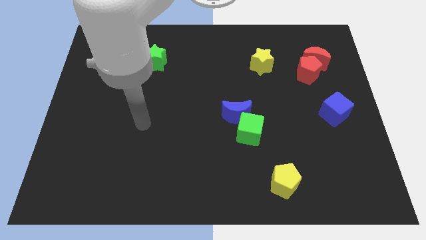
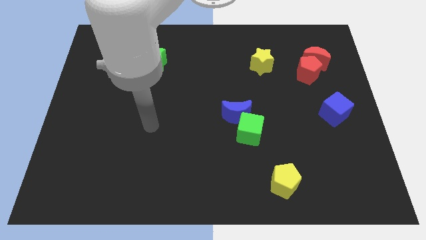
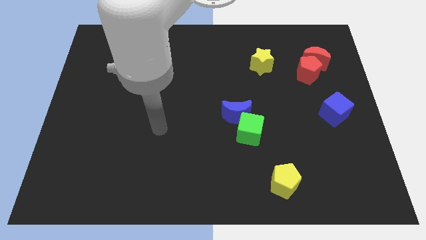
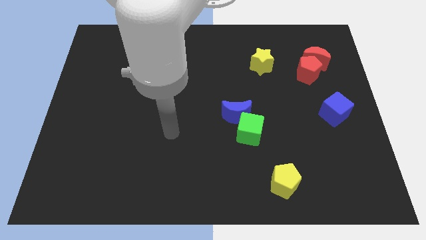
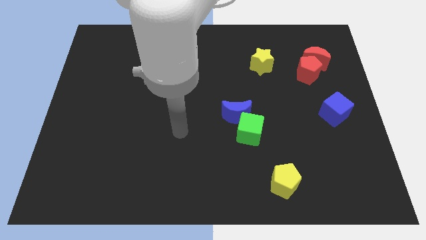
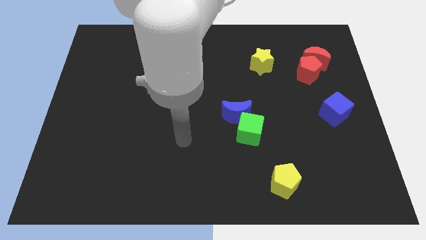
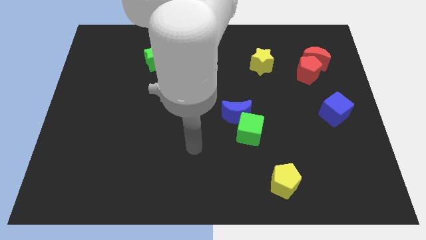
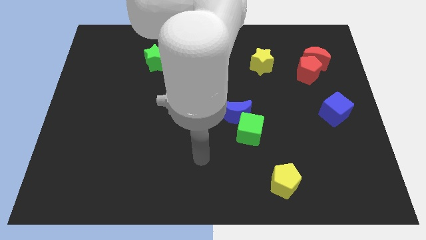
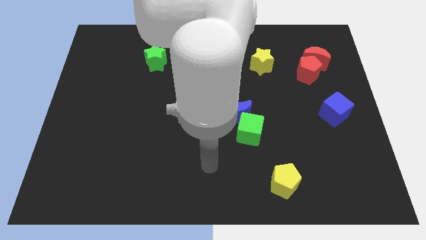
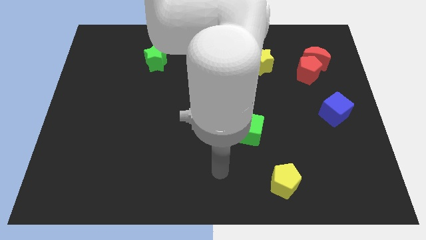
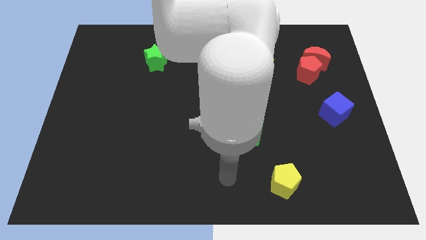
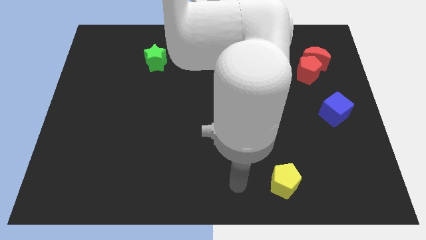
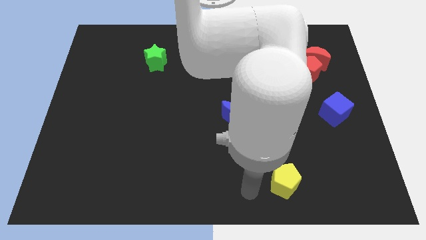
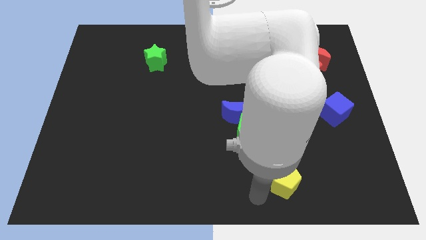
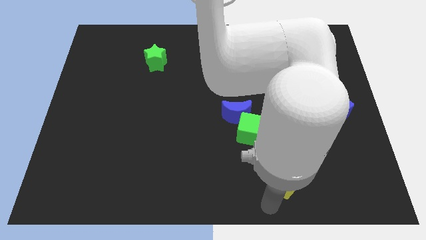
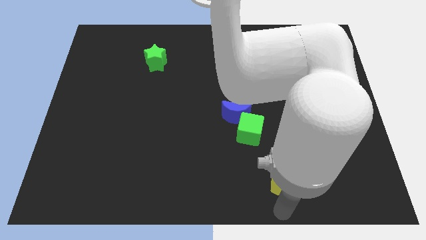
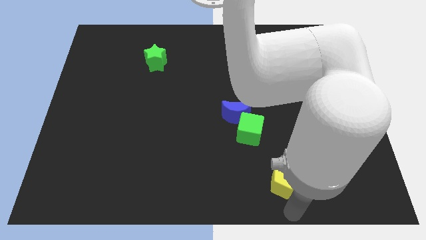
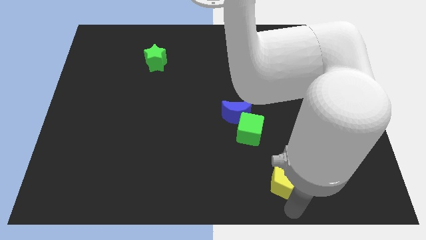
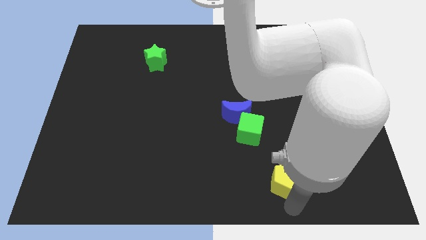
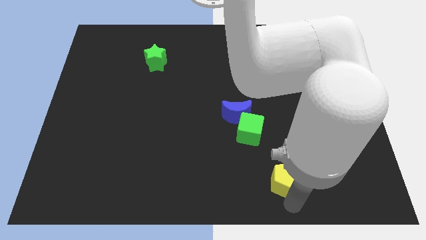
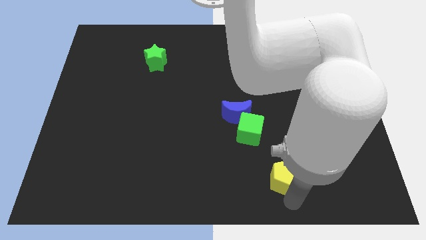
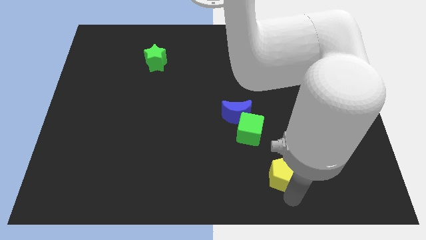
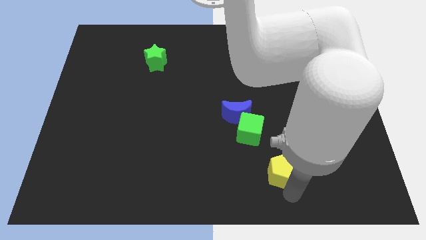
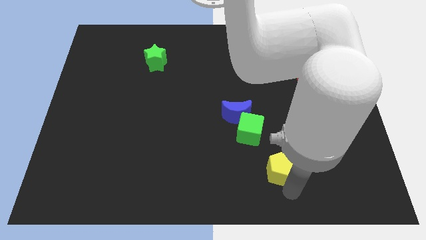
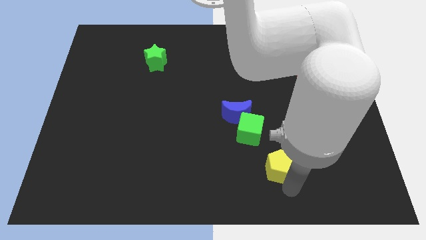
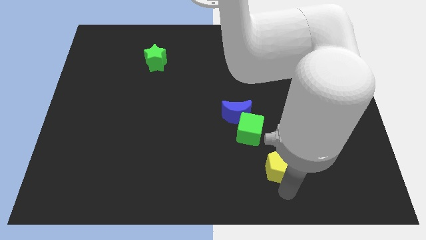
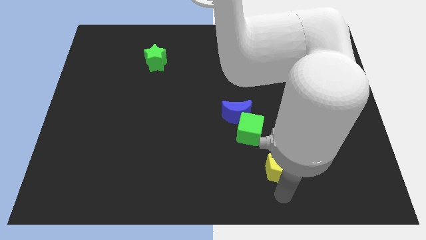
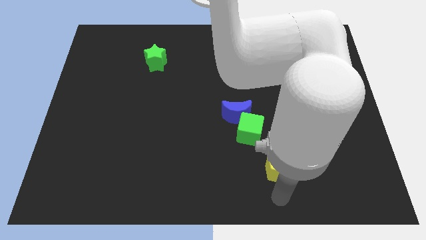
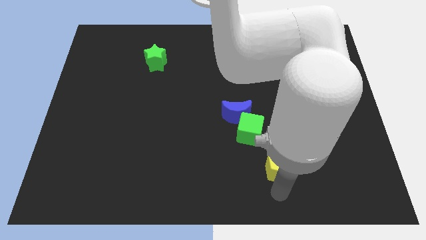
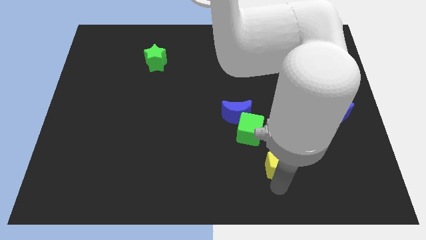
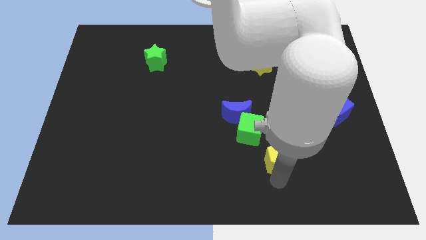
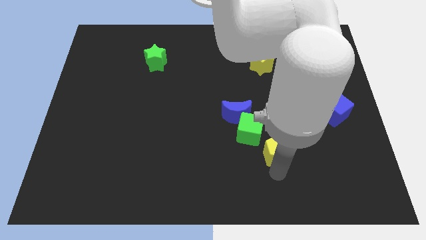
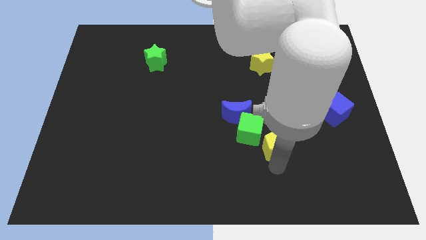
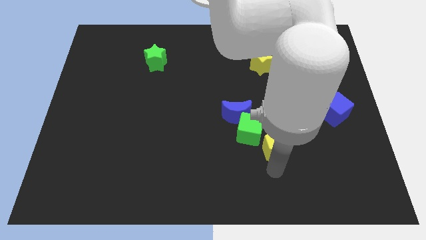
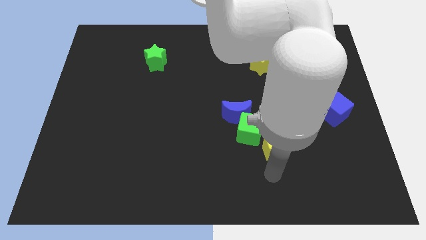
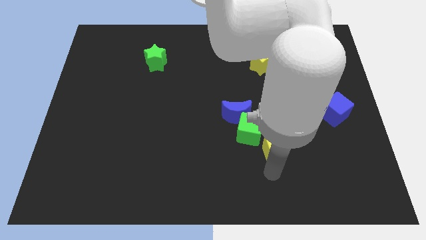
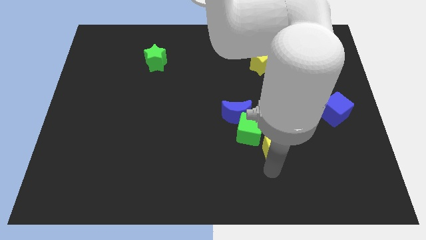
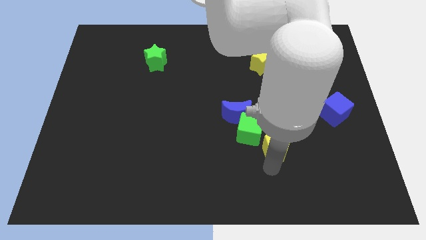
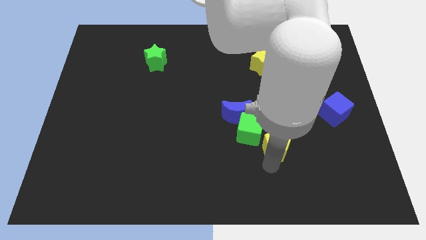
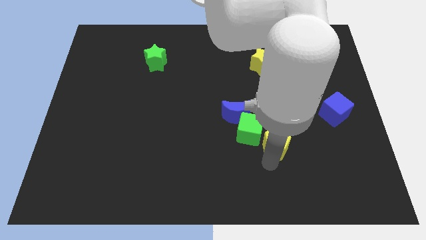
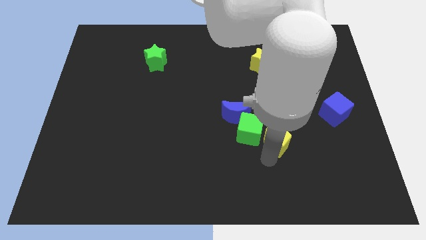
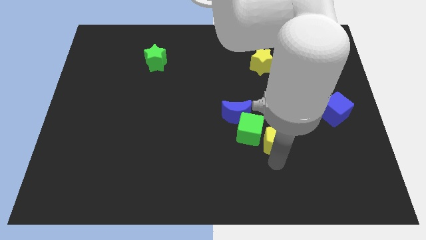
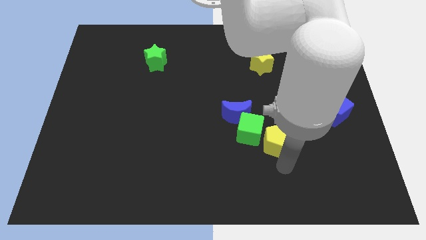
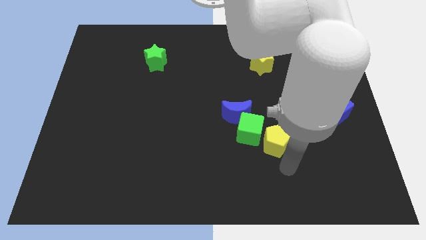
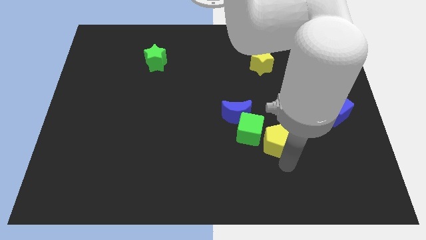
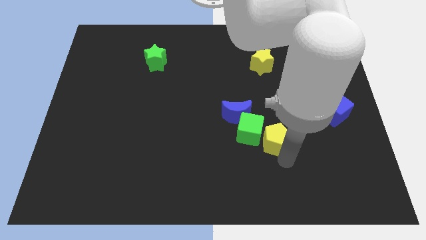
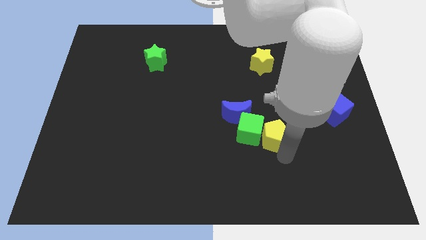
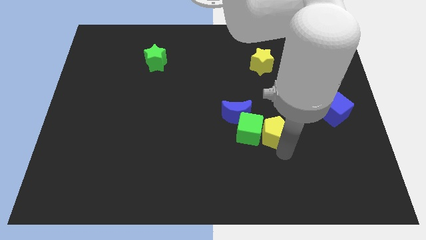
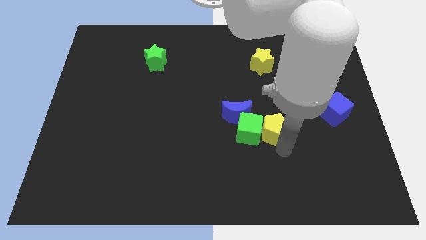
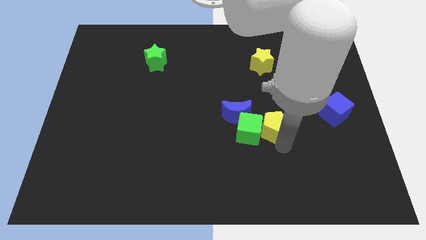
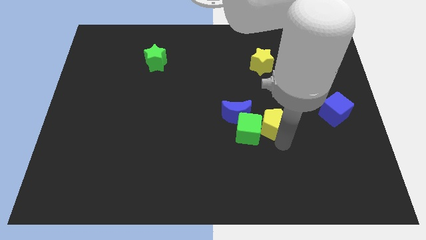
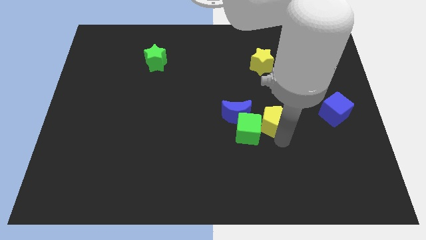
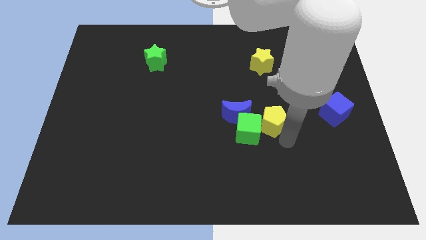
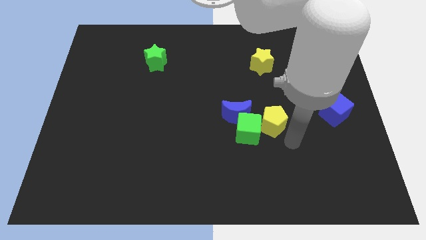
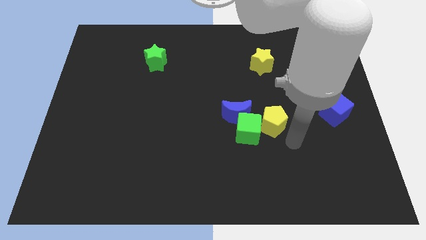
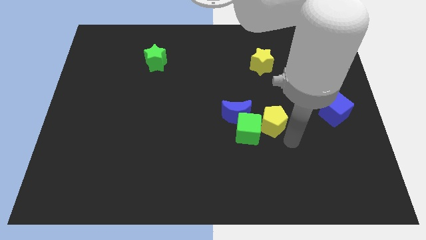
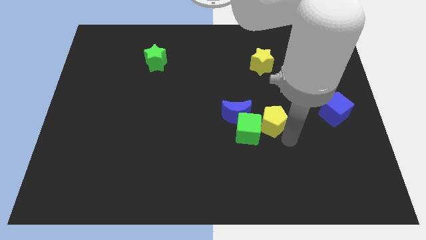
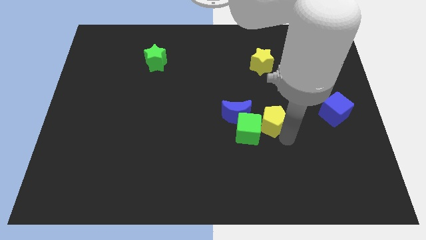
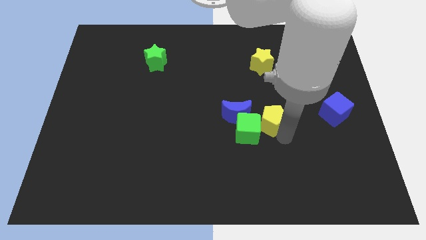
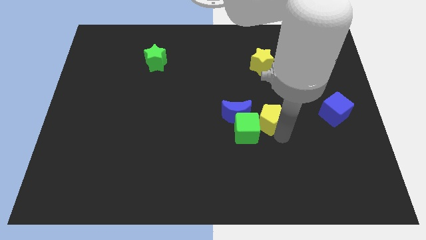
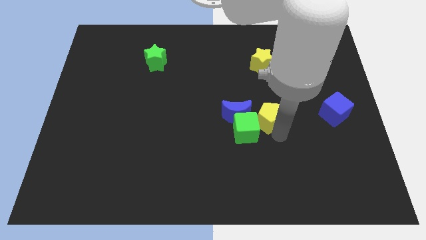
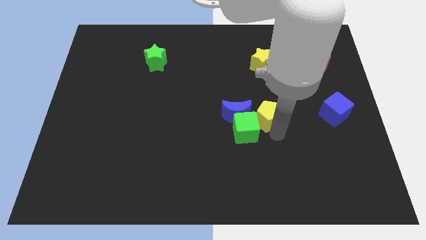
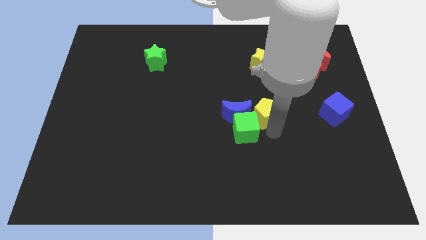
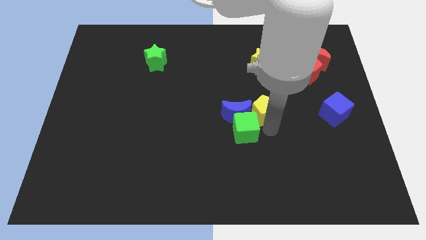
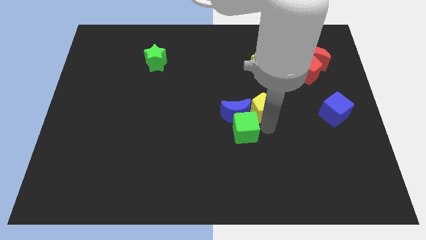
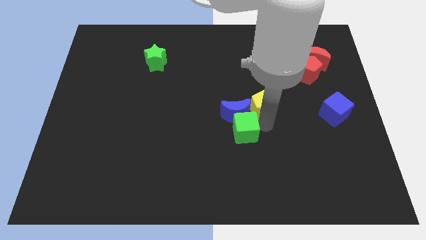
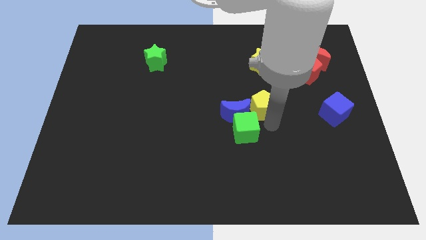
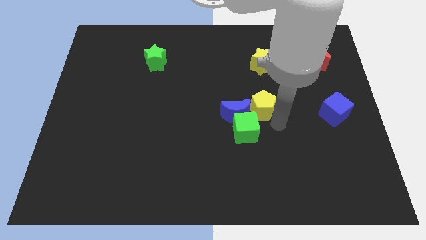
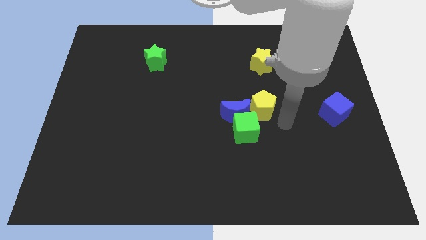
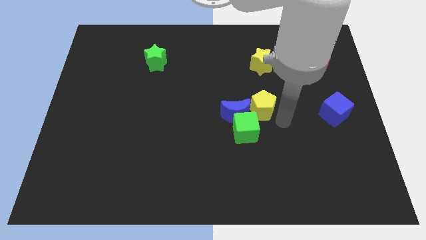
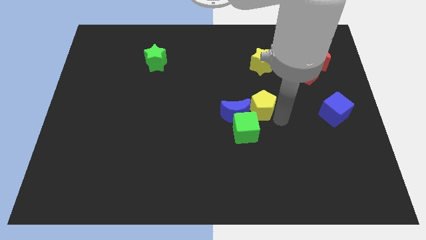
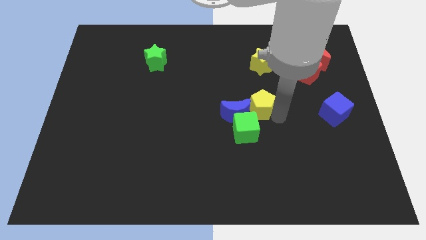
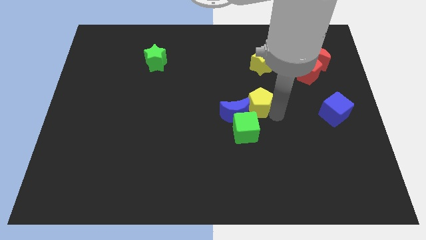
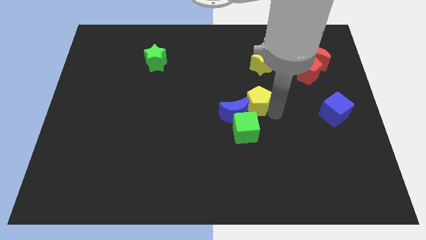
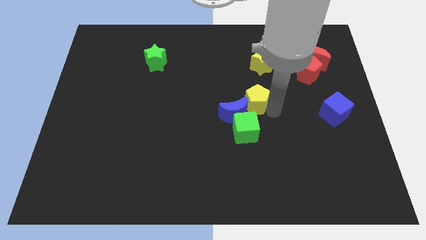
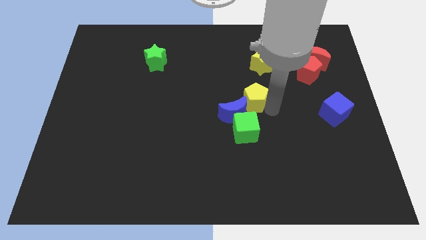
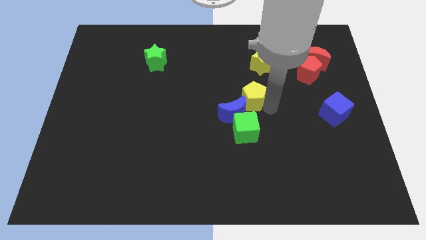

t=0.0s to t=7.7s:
move the yellow pentagon to the top side of the blue moon

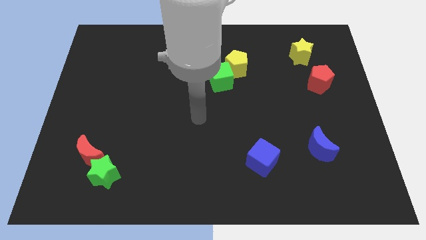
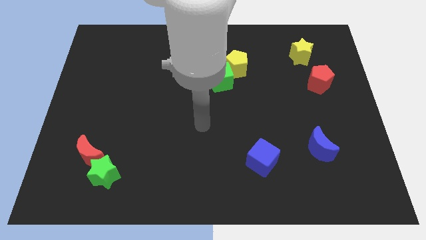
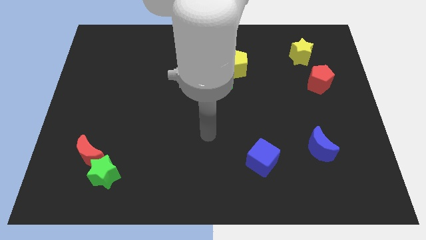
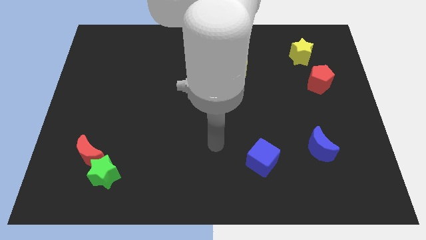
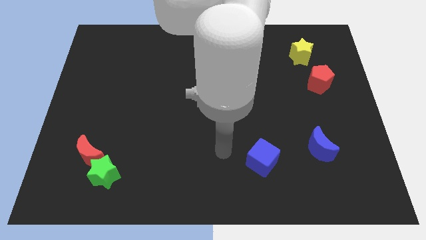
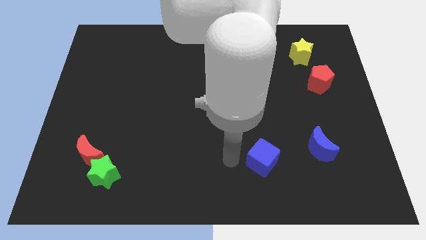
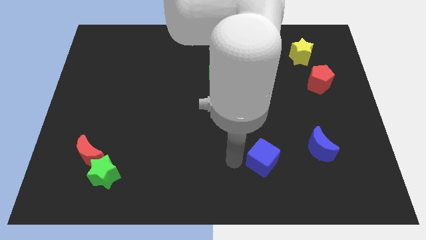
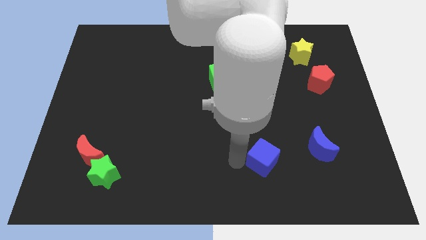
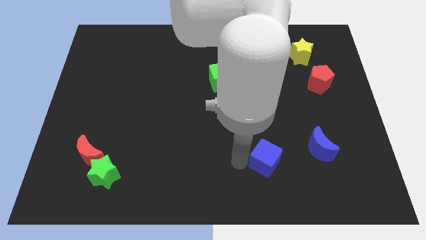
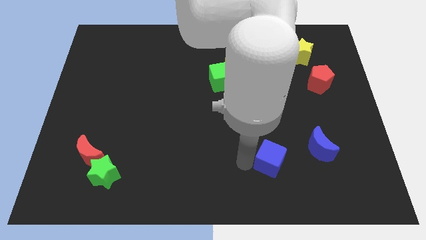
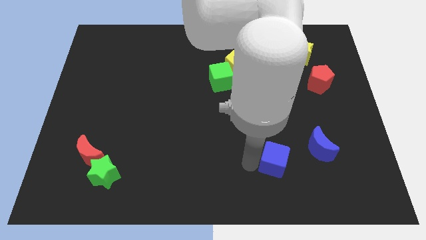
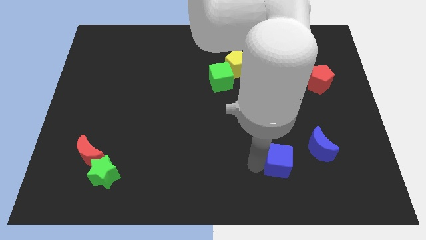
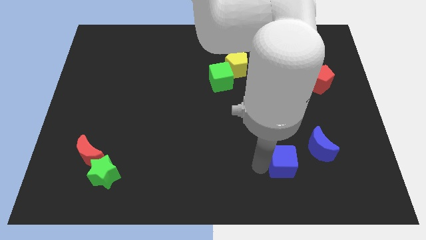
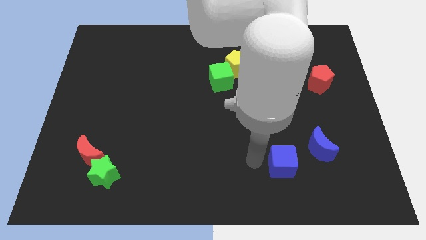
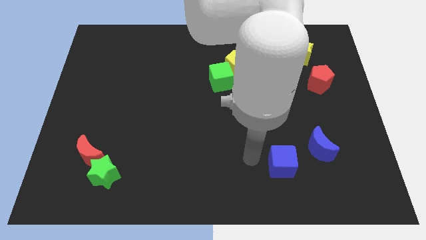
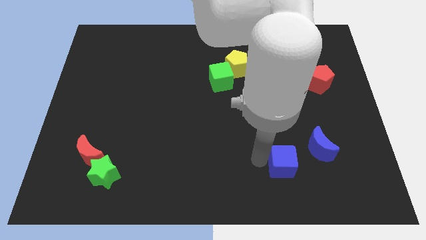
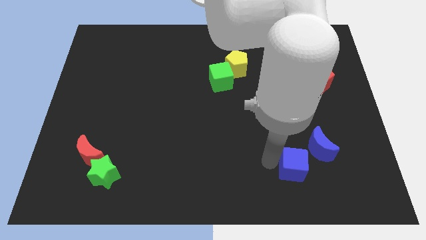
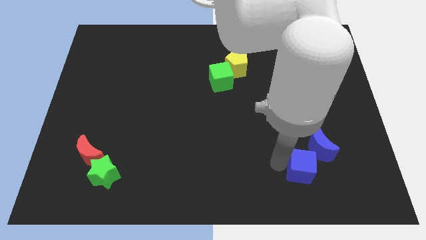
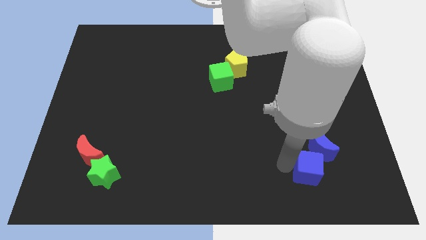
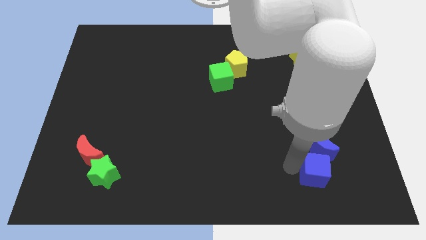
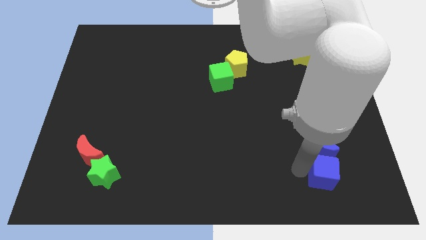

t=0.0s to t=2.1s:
put the blue cube to the bottom right side of the blue moon
